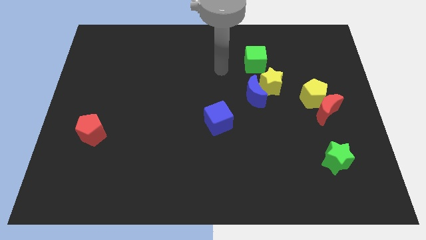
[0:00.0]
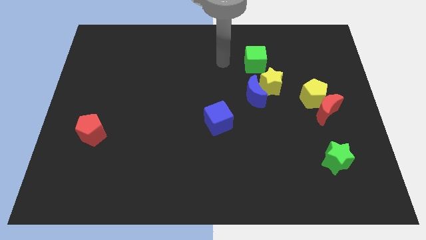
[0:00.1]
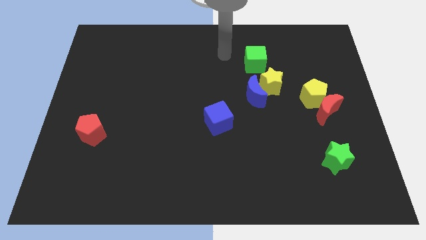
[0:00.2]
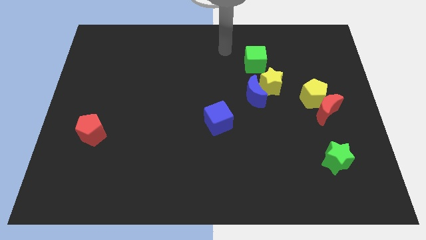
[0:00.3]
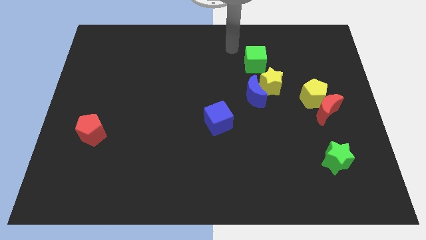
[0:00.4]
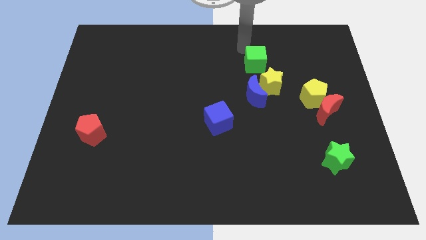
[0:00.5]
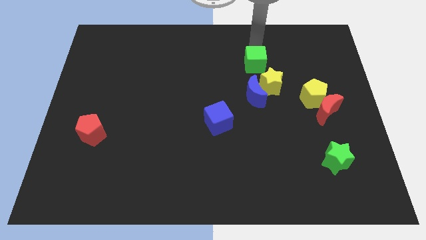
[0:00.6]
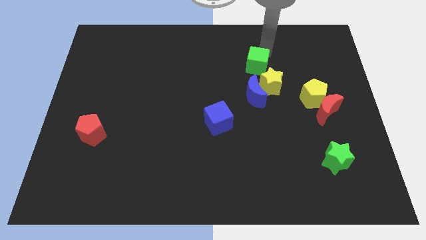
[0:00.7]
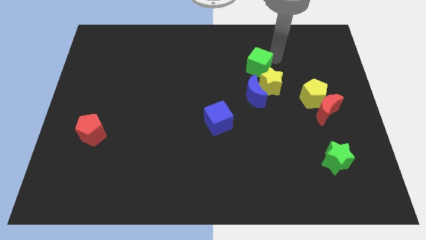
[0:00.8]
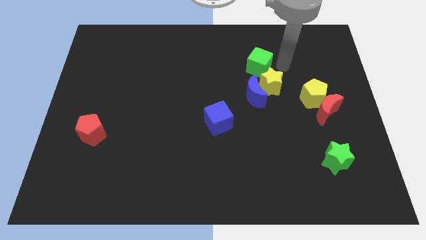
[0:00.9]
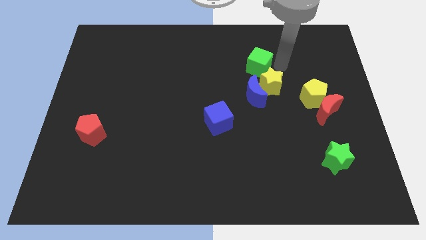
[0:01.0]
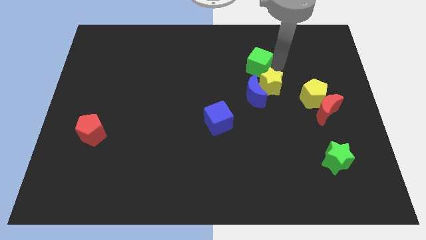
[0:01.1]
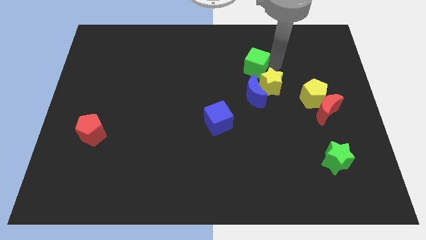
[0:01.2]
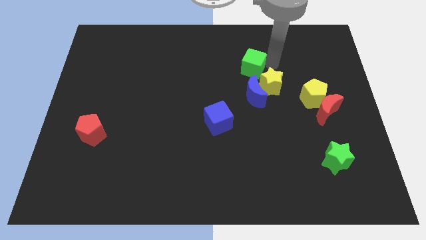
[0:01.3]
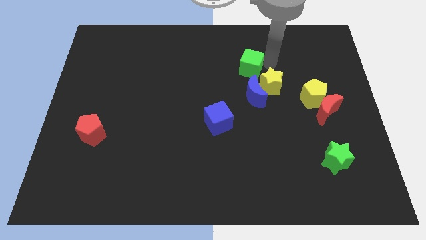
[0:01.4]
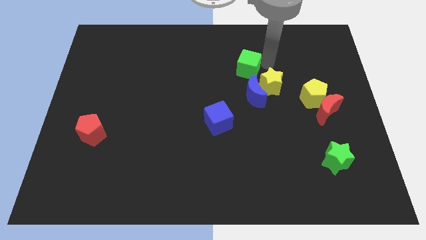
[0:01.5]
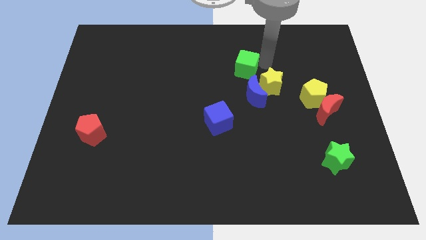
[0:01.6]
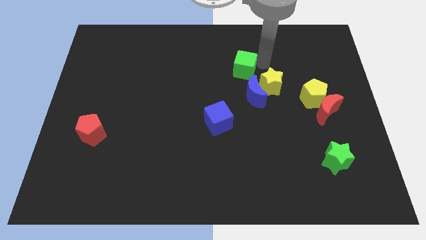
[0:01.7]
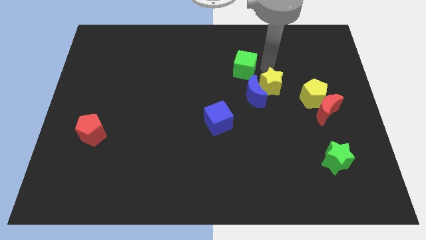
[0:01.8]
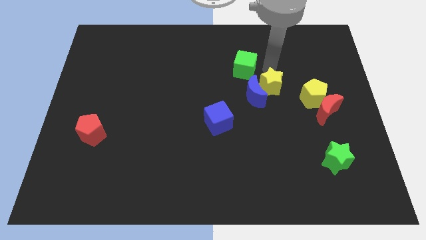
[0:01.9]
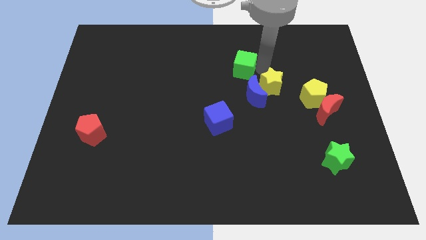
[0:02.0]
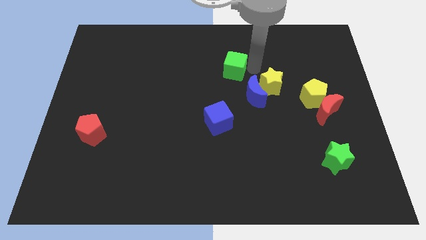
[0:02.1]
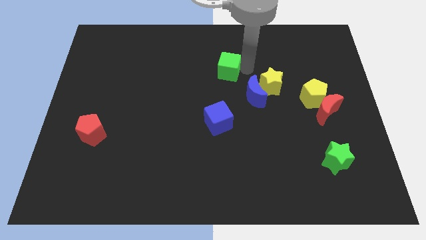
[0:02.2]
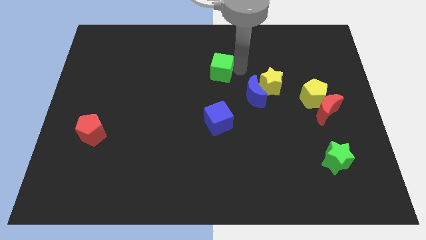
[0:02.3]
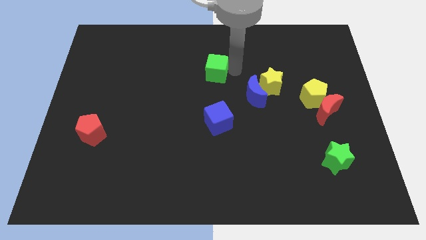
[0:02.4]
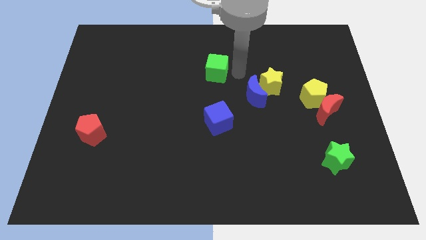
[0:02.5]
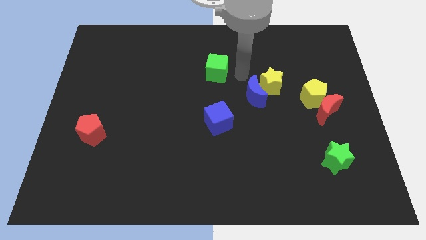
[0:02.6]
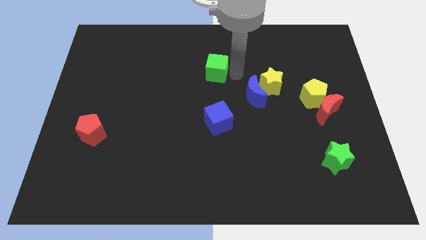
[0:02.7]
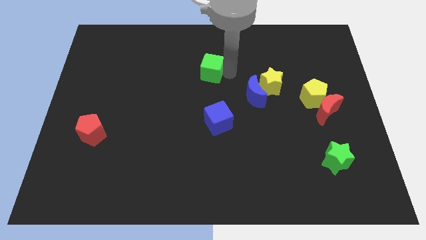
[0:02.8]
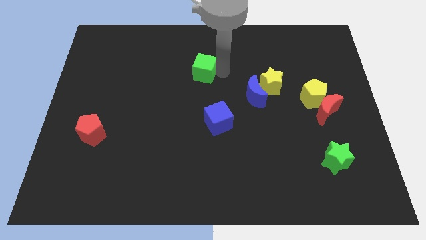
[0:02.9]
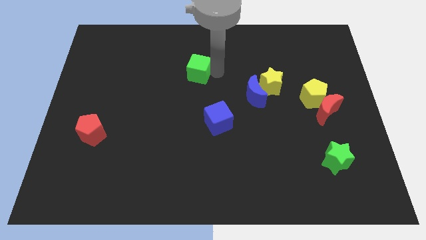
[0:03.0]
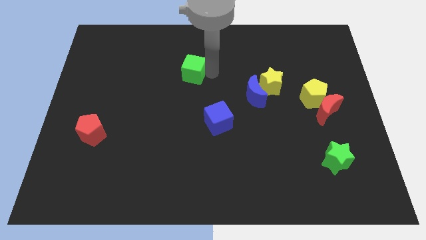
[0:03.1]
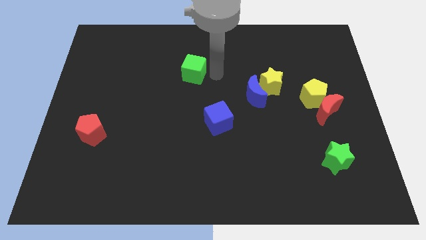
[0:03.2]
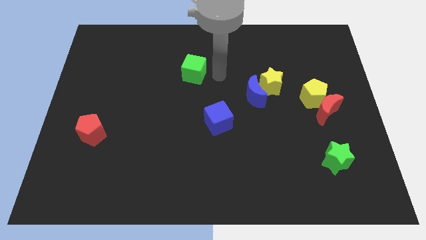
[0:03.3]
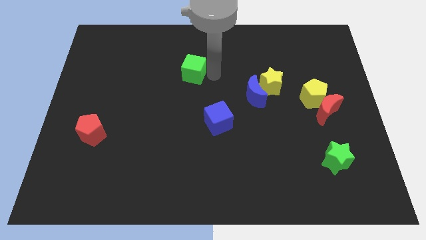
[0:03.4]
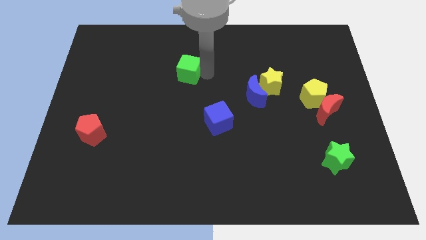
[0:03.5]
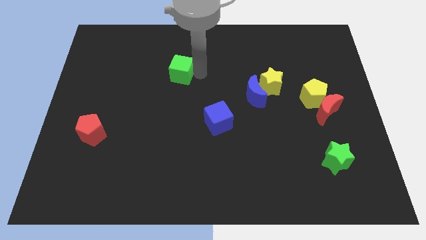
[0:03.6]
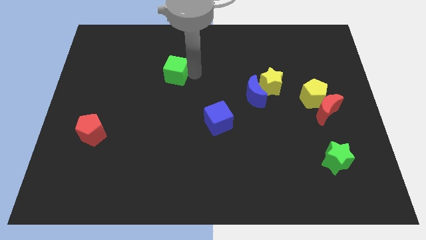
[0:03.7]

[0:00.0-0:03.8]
slide the green cube to the left

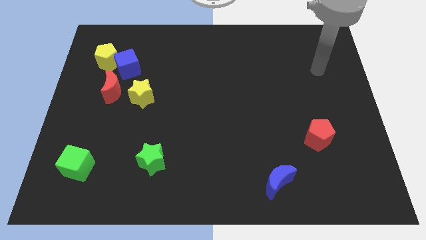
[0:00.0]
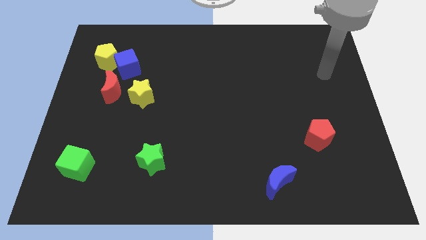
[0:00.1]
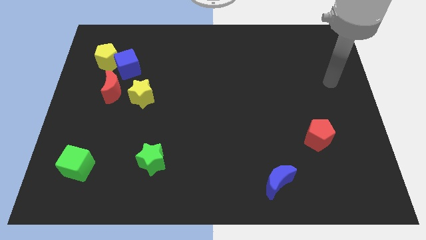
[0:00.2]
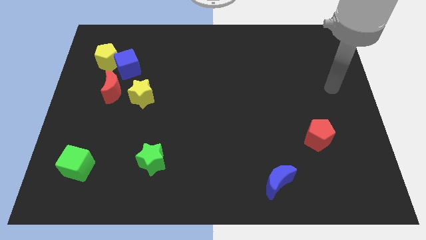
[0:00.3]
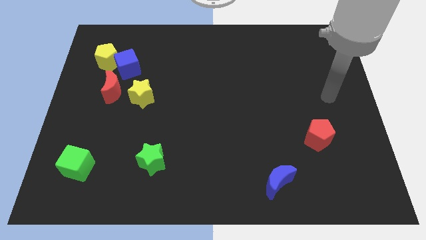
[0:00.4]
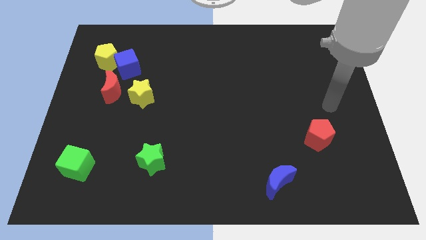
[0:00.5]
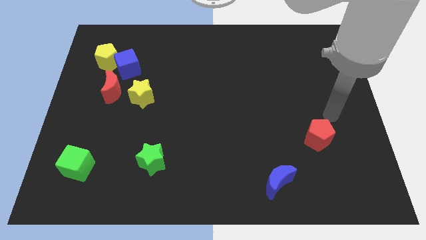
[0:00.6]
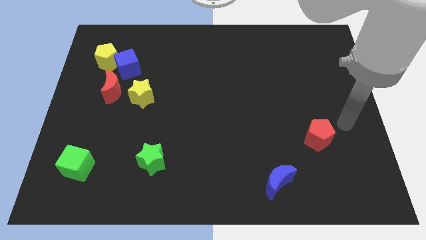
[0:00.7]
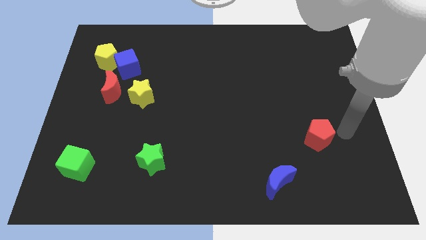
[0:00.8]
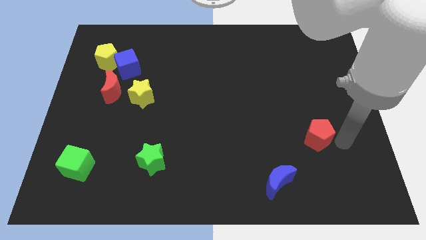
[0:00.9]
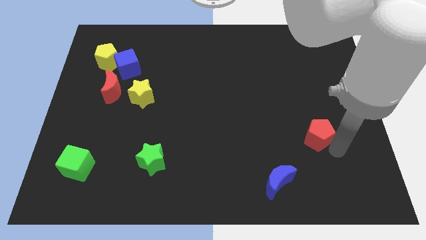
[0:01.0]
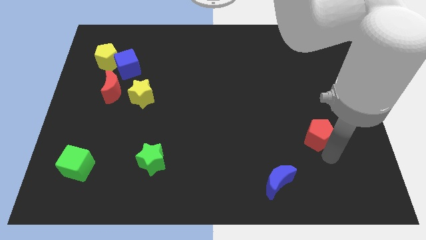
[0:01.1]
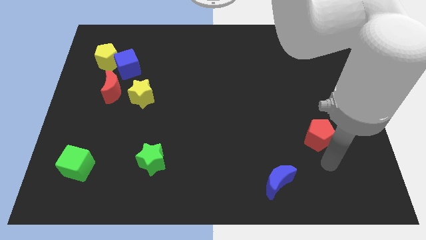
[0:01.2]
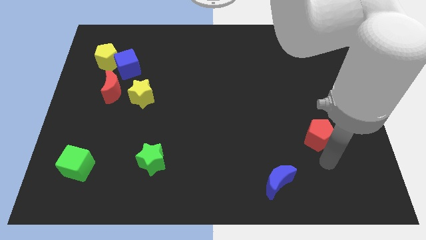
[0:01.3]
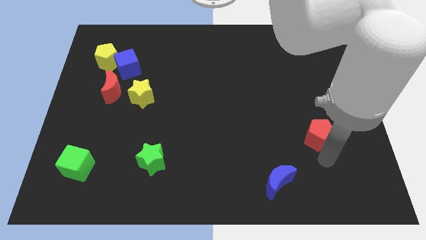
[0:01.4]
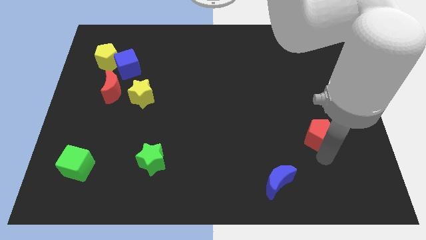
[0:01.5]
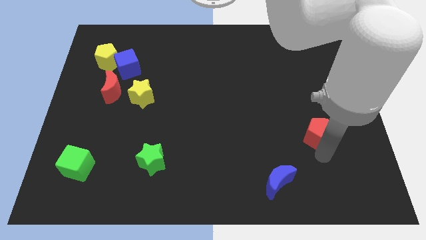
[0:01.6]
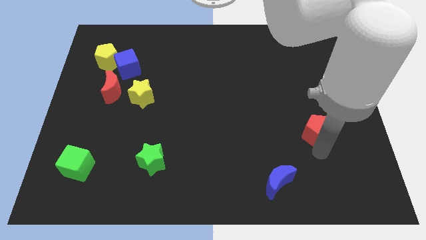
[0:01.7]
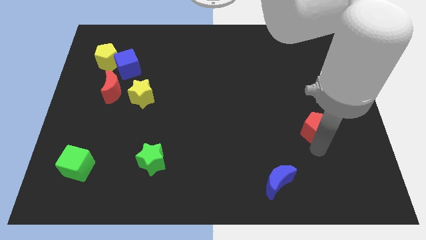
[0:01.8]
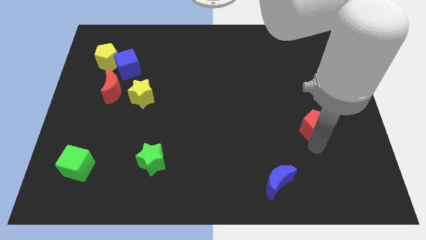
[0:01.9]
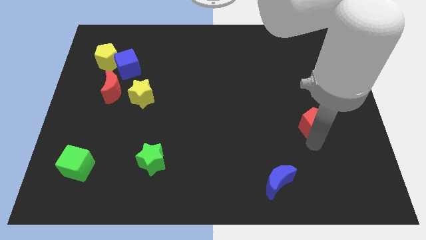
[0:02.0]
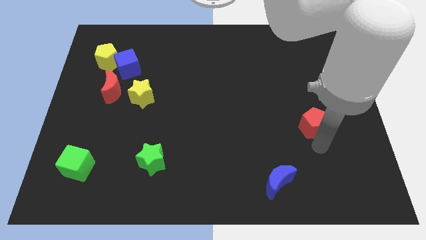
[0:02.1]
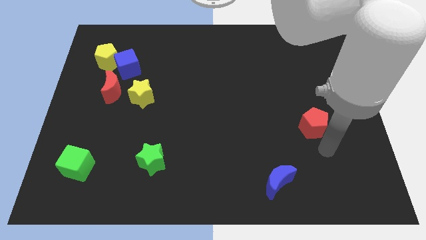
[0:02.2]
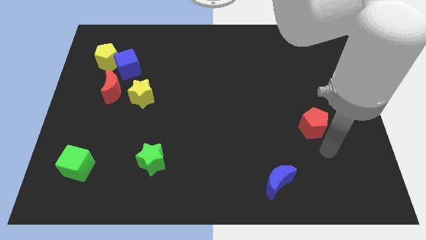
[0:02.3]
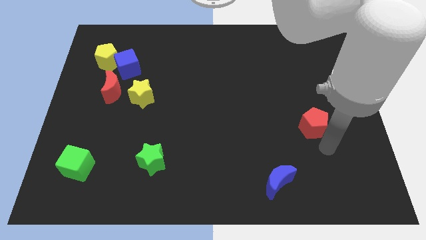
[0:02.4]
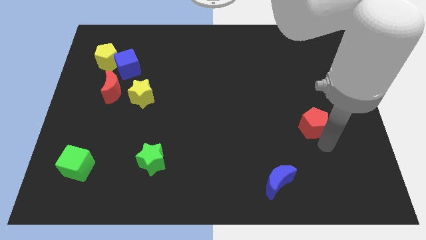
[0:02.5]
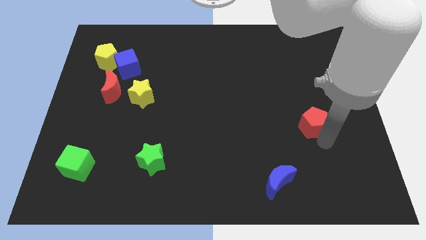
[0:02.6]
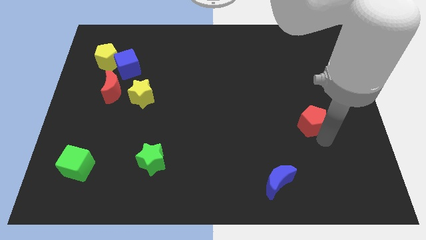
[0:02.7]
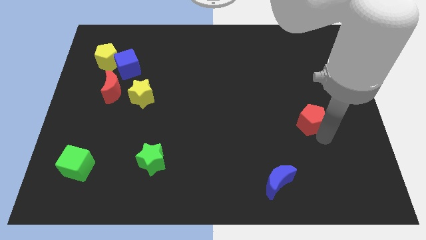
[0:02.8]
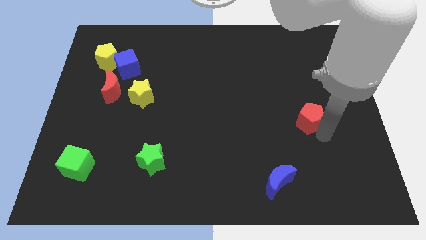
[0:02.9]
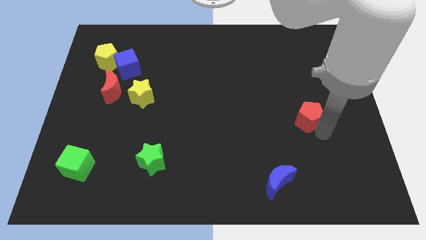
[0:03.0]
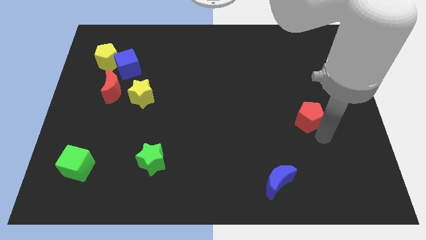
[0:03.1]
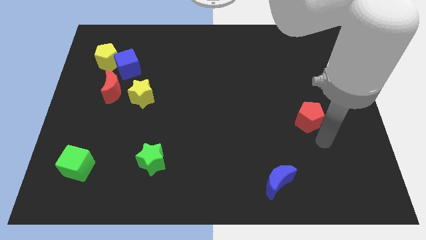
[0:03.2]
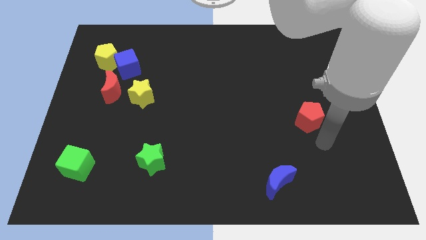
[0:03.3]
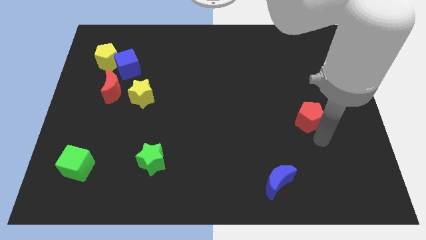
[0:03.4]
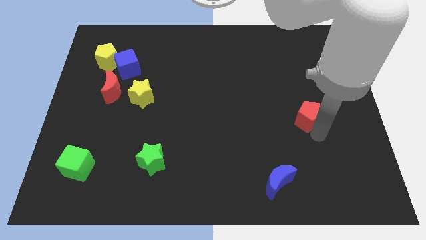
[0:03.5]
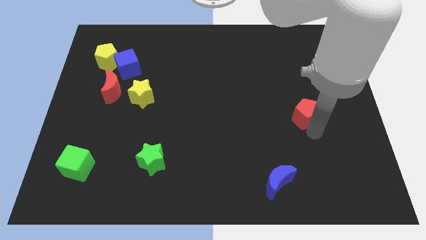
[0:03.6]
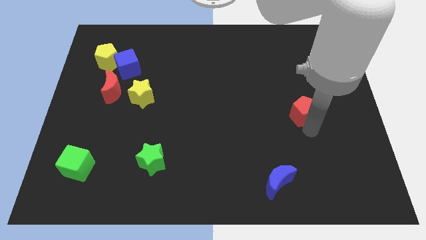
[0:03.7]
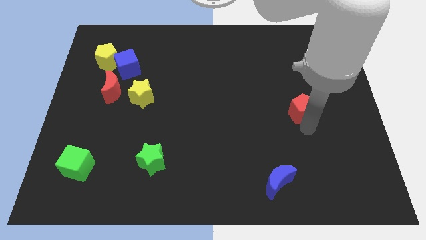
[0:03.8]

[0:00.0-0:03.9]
move the red pentagon a bit upwards

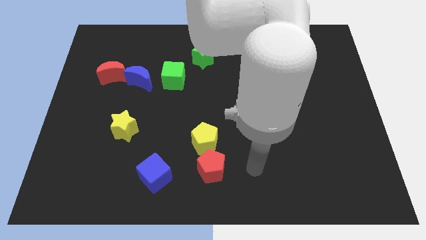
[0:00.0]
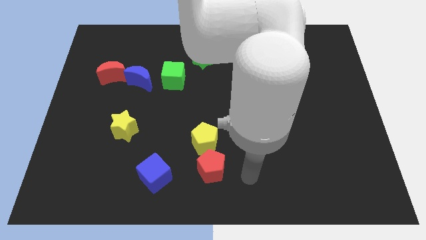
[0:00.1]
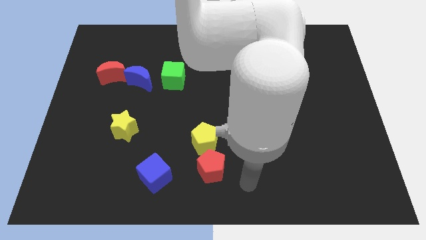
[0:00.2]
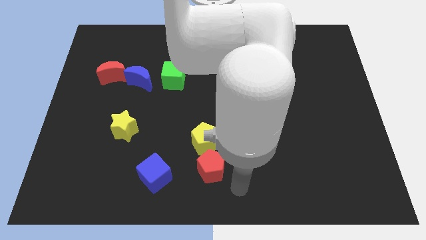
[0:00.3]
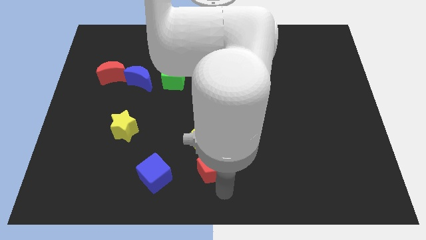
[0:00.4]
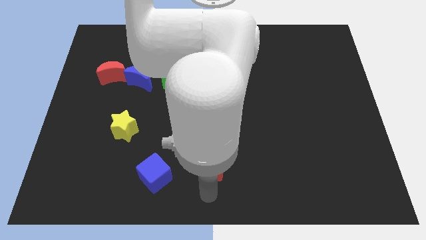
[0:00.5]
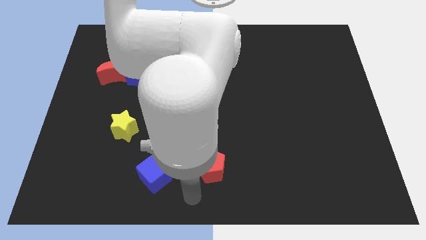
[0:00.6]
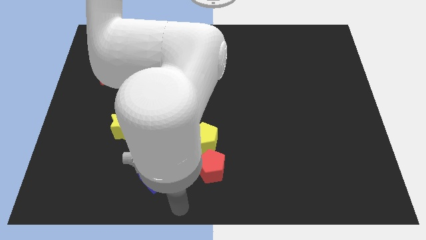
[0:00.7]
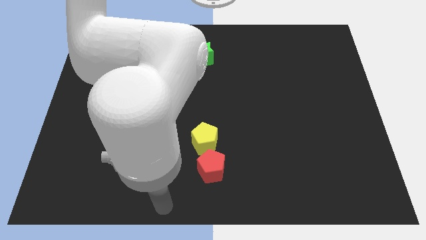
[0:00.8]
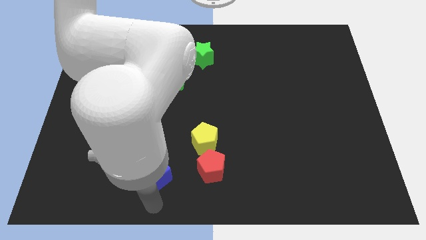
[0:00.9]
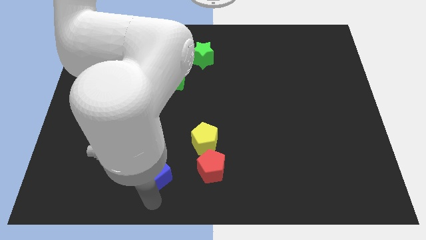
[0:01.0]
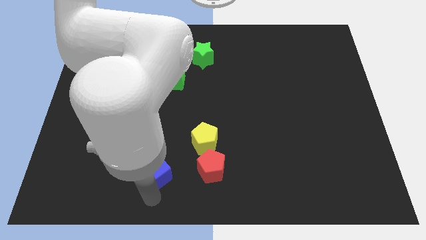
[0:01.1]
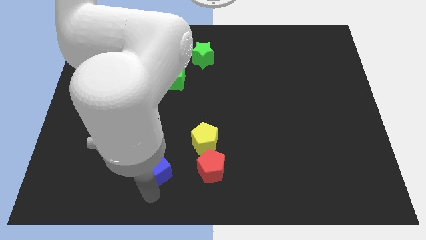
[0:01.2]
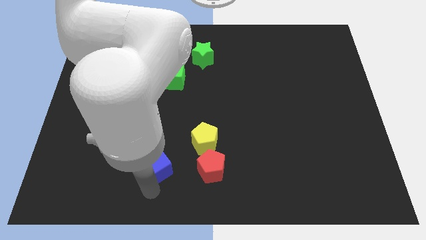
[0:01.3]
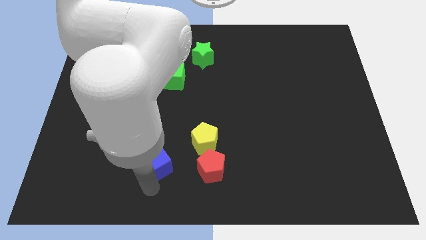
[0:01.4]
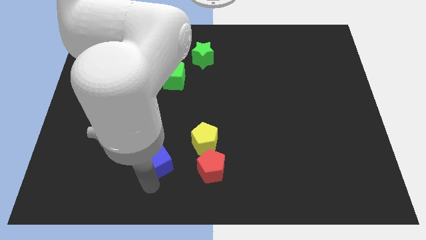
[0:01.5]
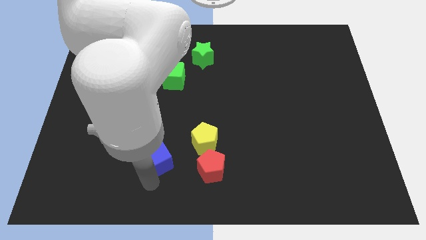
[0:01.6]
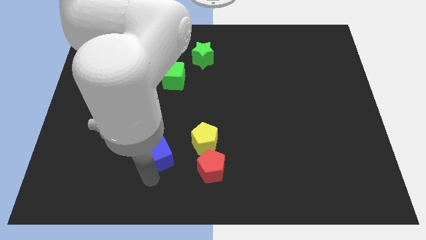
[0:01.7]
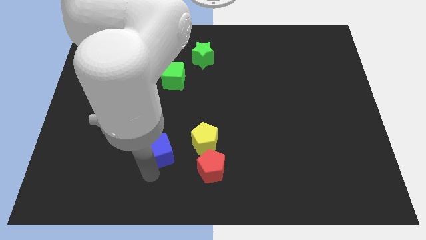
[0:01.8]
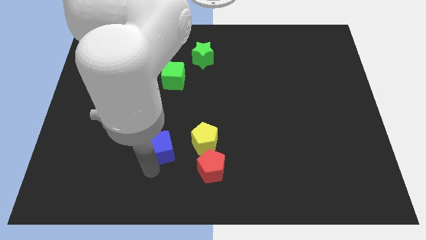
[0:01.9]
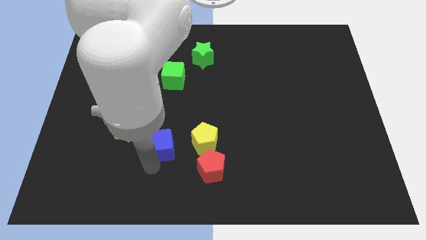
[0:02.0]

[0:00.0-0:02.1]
slightly slide the blue cube upwards
